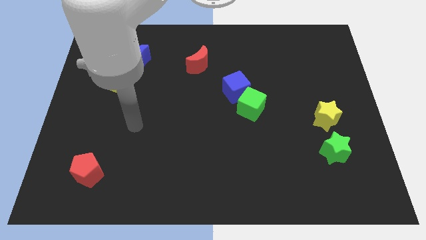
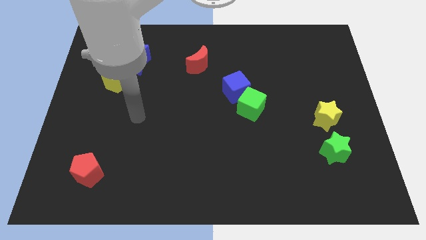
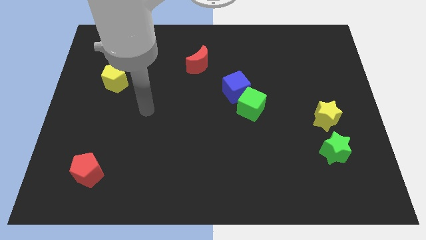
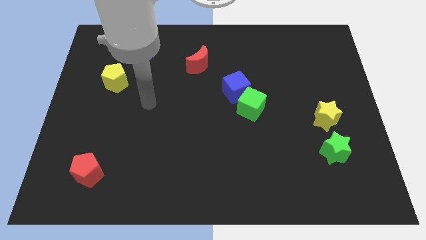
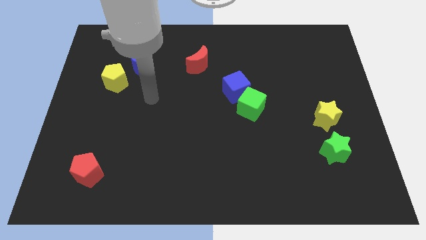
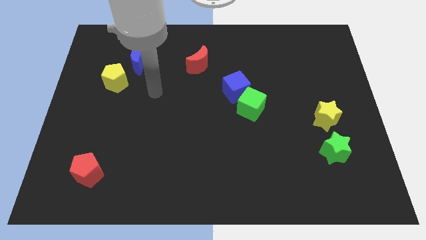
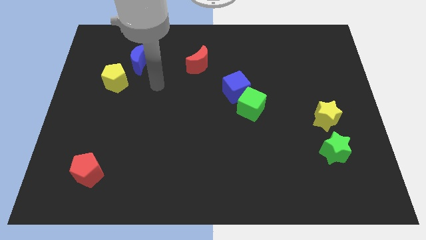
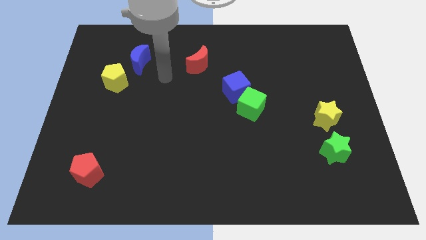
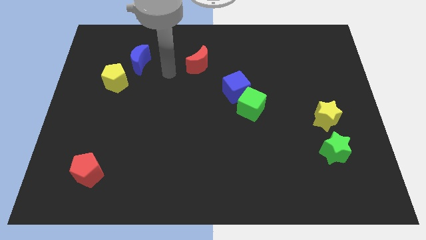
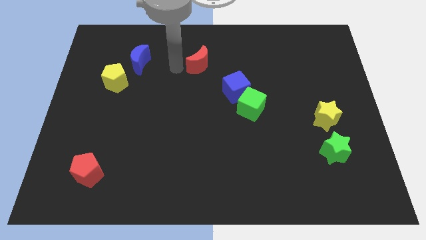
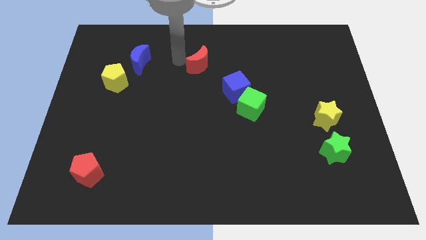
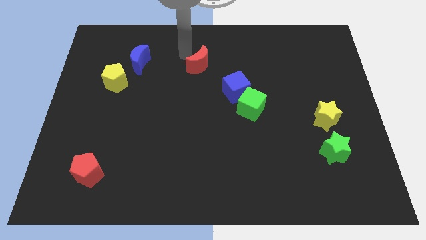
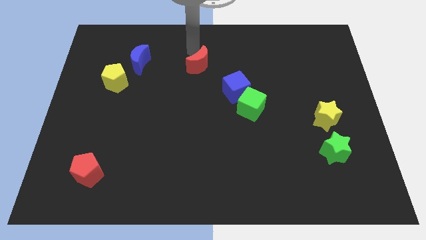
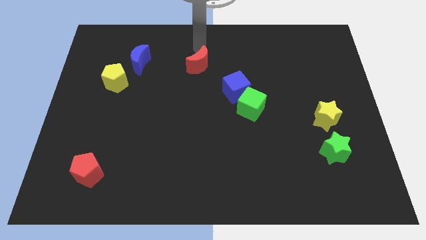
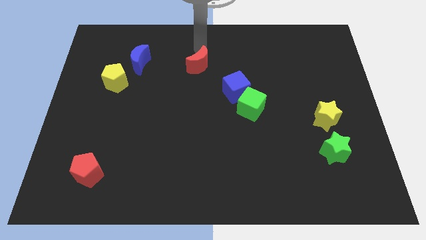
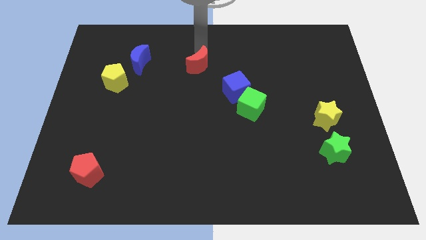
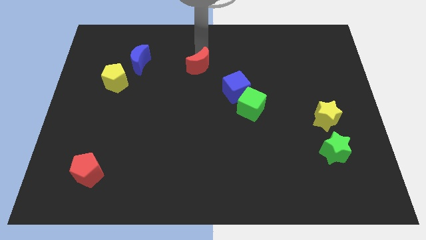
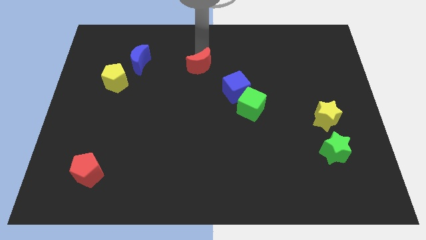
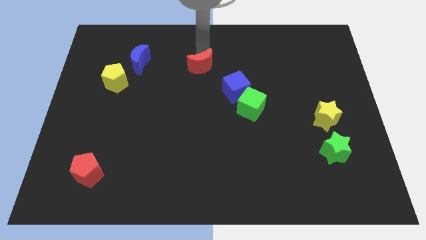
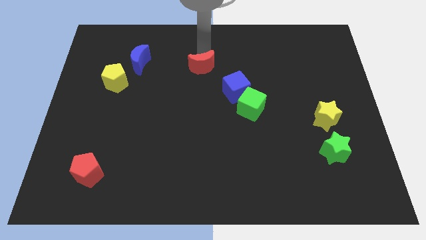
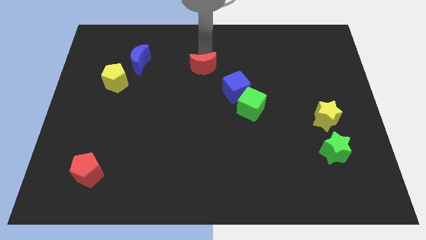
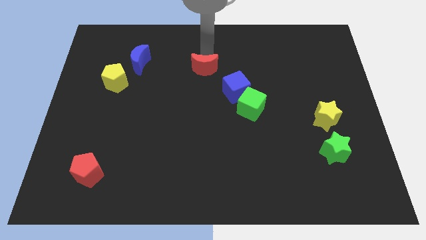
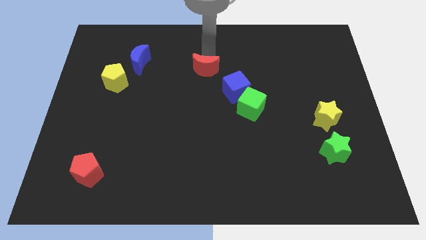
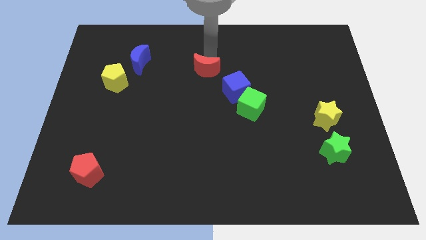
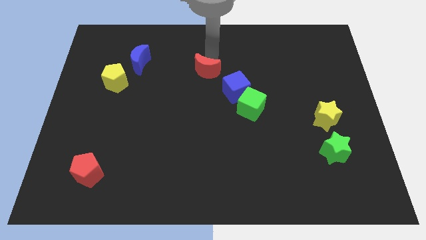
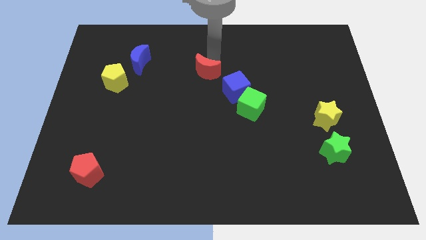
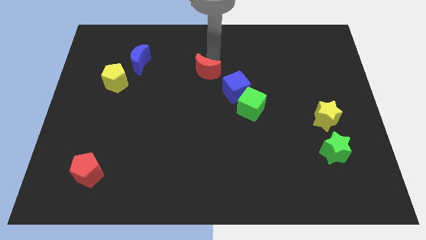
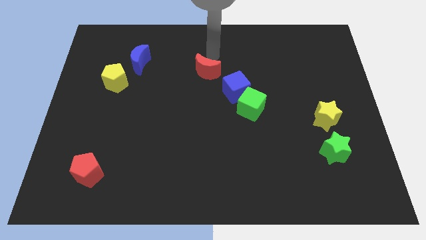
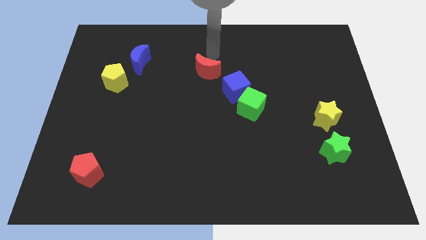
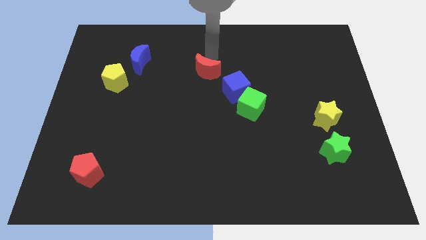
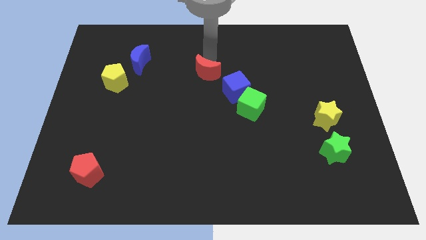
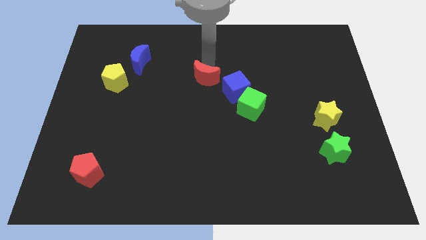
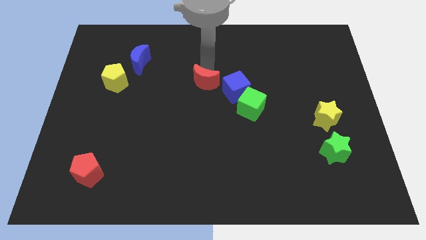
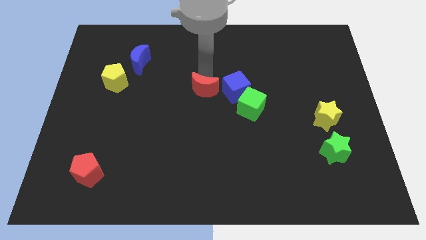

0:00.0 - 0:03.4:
move the red moon downwards a little bit

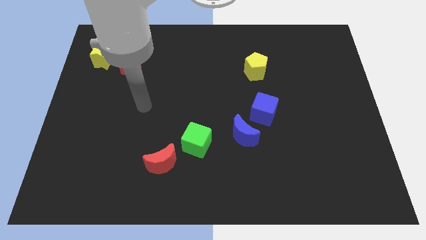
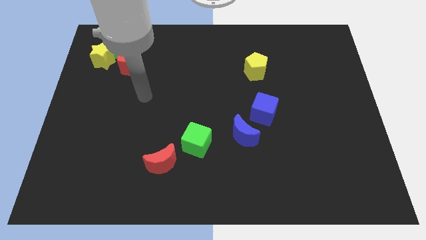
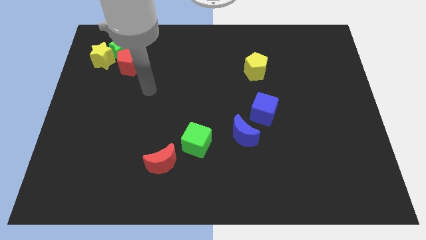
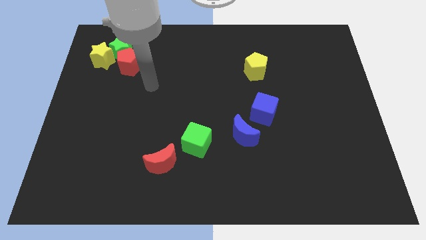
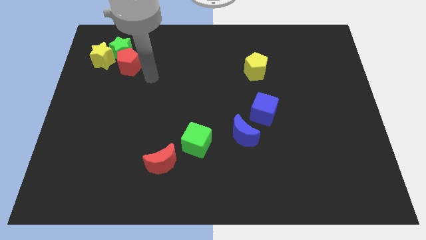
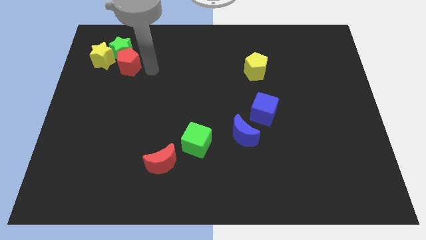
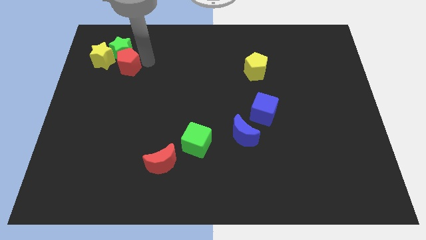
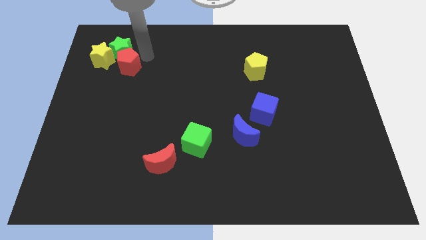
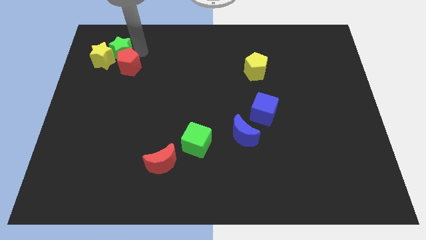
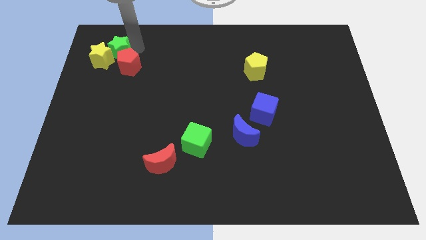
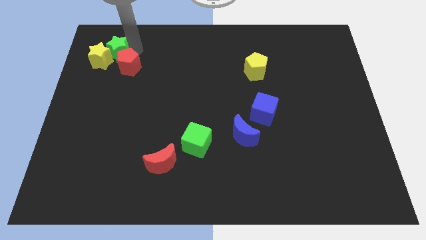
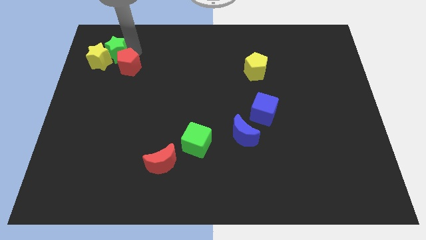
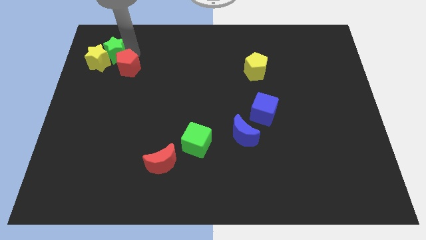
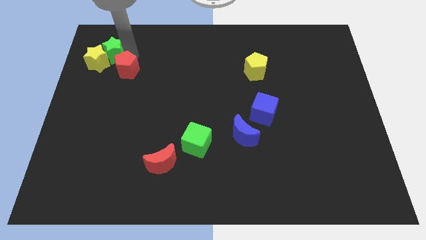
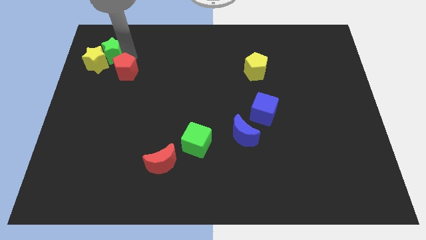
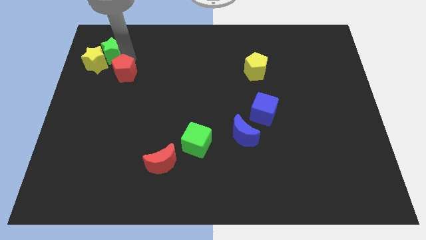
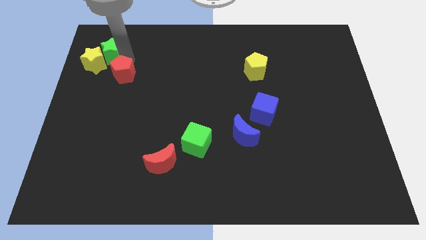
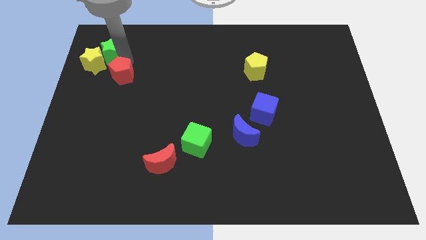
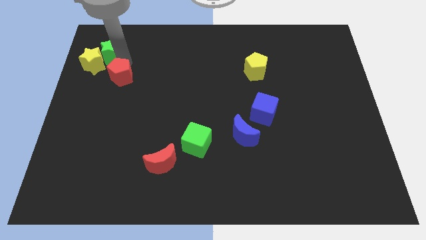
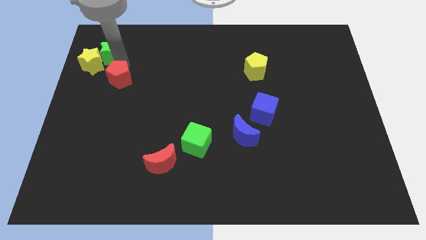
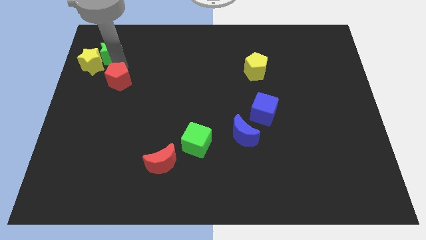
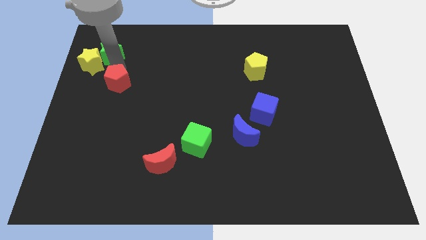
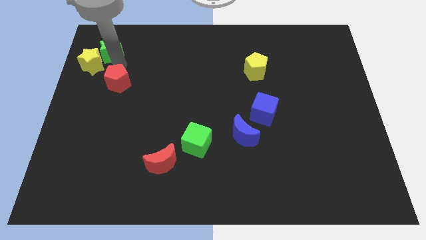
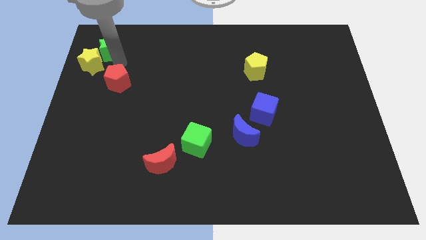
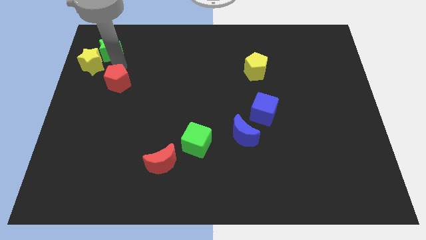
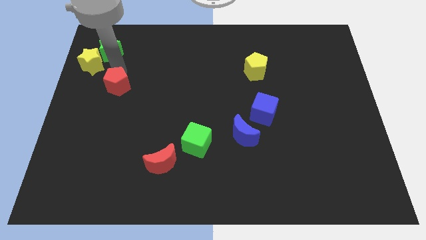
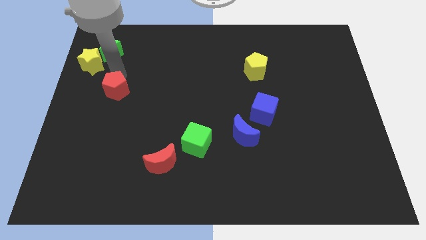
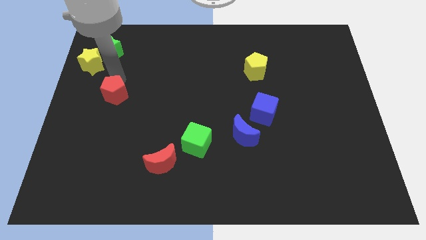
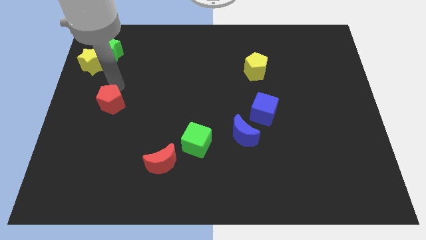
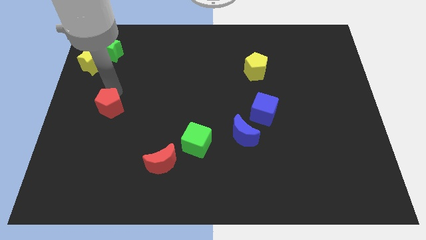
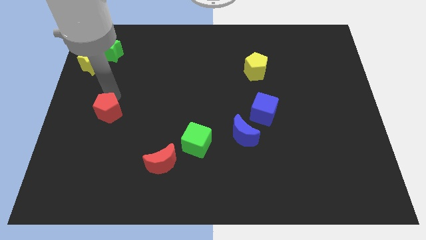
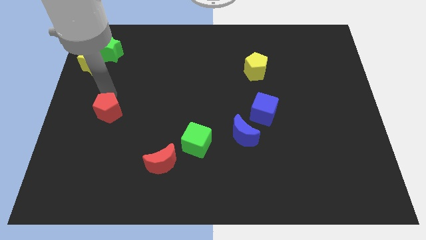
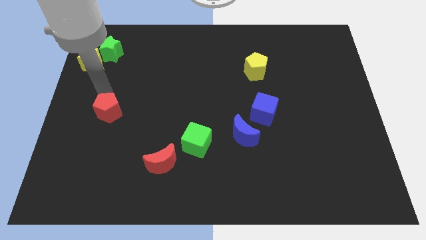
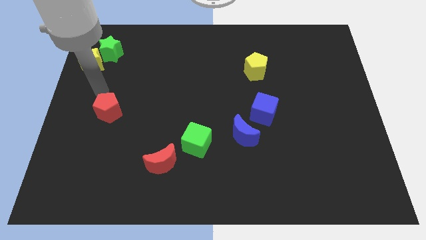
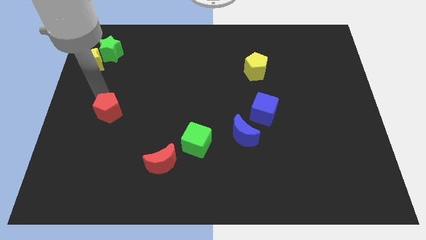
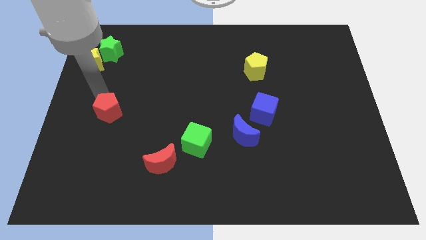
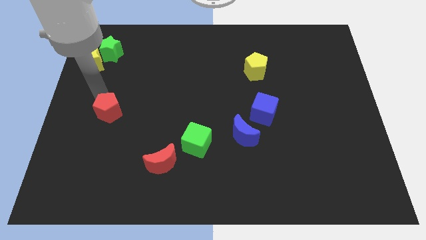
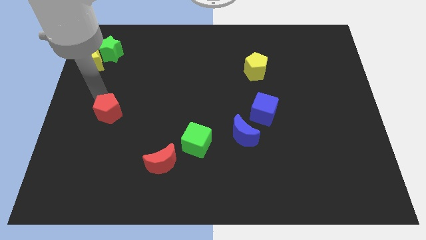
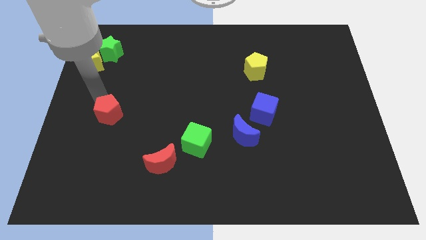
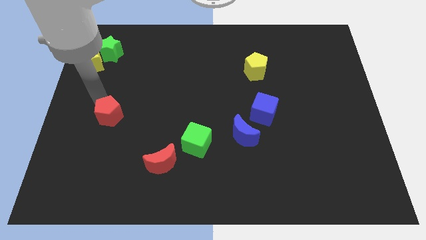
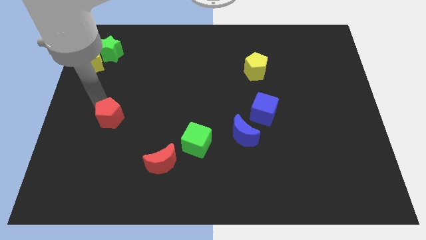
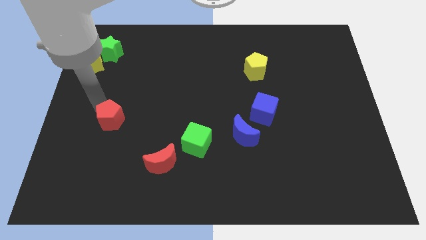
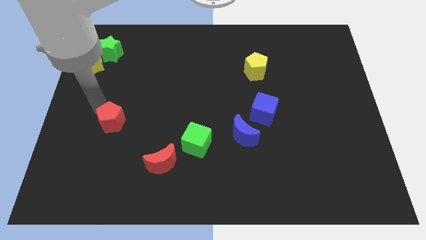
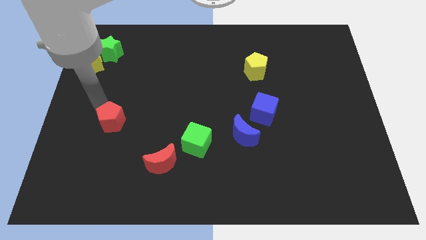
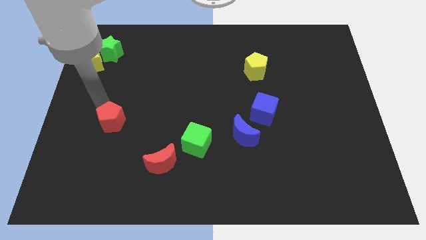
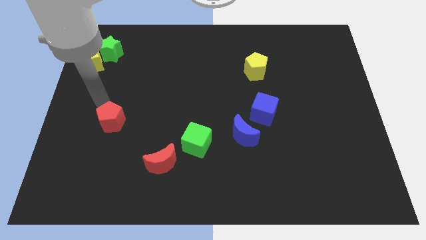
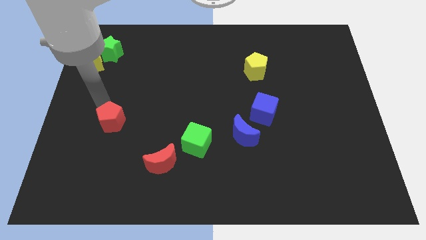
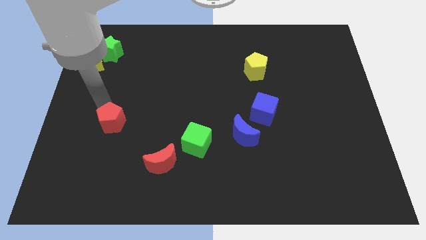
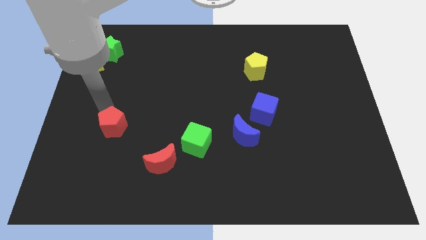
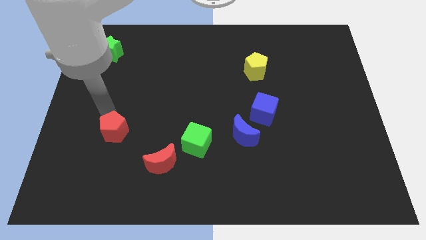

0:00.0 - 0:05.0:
move the red pentagon down
